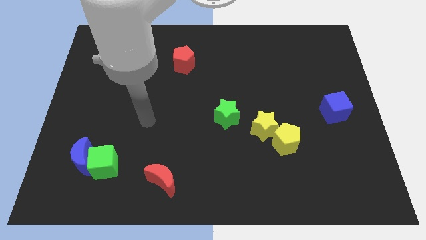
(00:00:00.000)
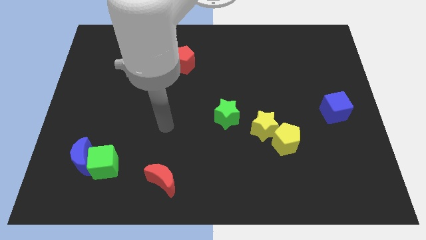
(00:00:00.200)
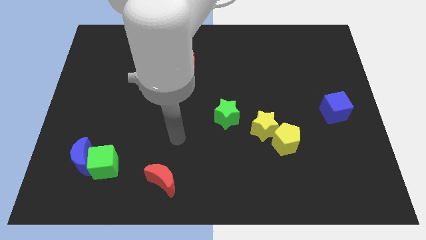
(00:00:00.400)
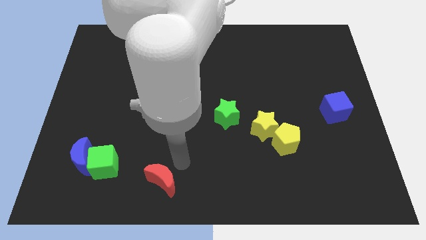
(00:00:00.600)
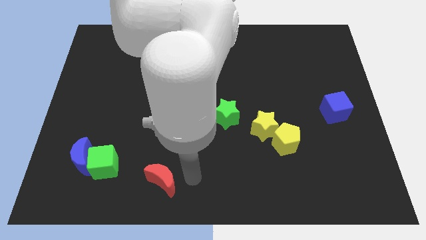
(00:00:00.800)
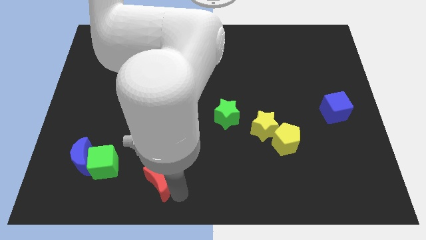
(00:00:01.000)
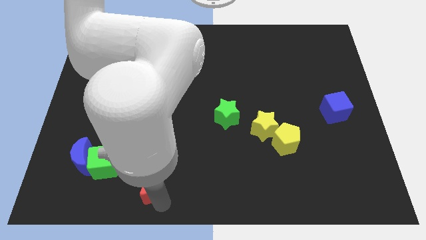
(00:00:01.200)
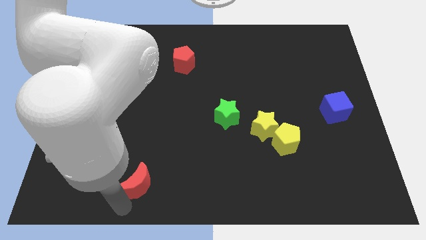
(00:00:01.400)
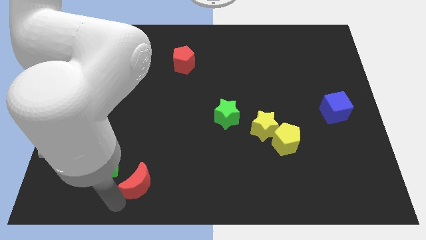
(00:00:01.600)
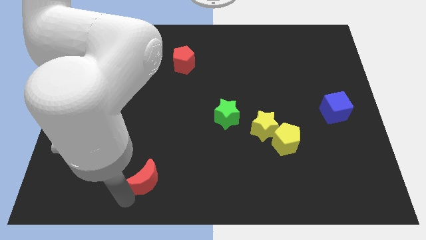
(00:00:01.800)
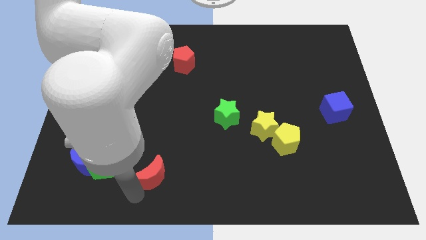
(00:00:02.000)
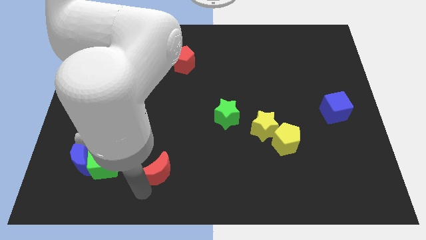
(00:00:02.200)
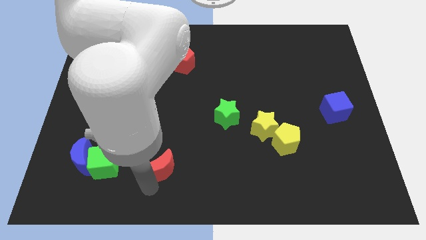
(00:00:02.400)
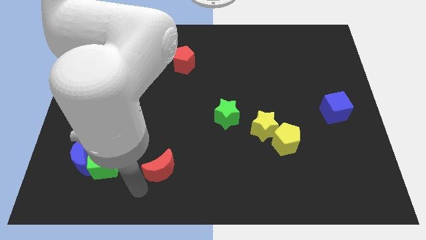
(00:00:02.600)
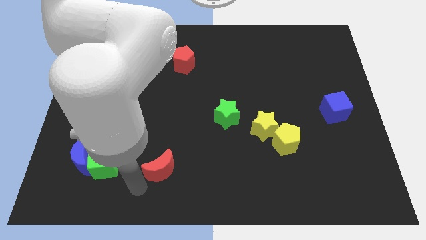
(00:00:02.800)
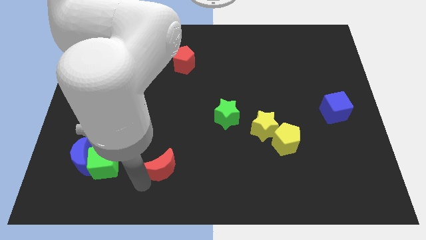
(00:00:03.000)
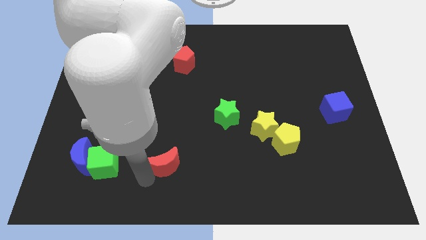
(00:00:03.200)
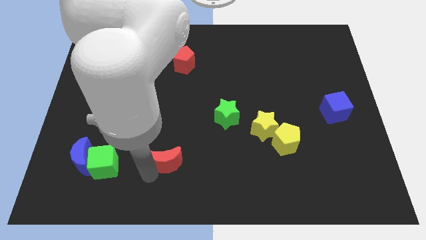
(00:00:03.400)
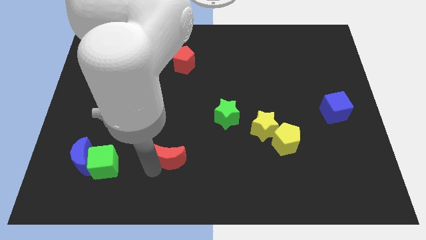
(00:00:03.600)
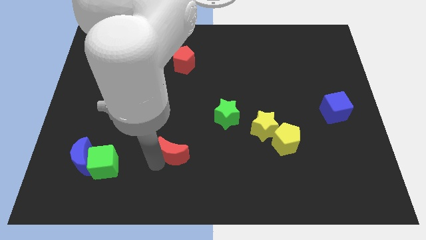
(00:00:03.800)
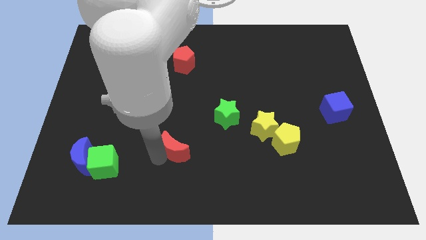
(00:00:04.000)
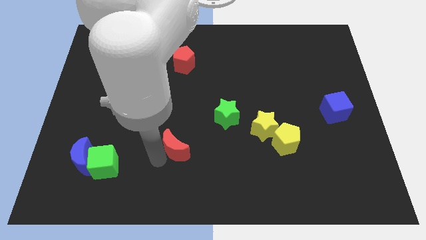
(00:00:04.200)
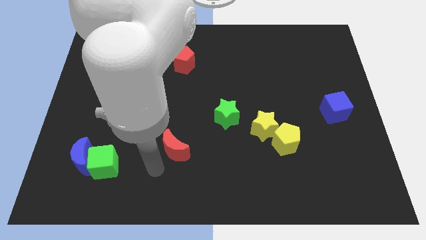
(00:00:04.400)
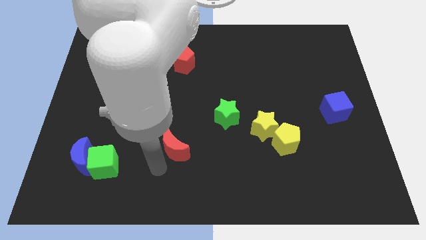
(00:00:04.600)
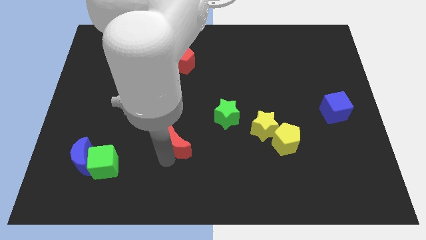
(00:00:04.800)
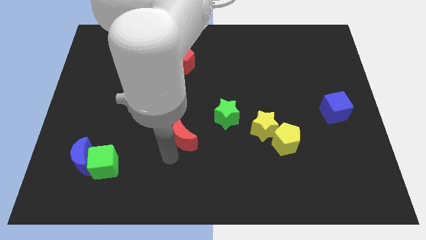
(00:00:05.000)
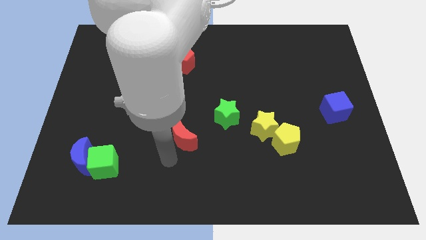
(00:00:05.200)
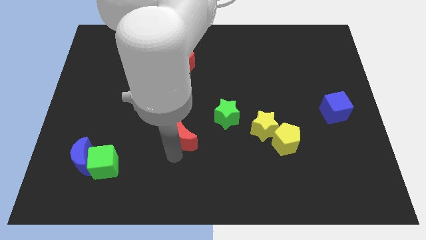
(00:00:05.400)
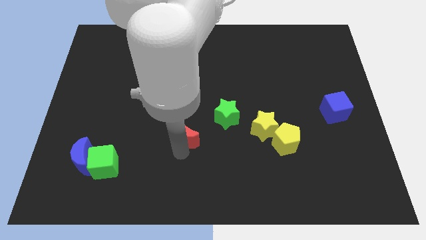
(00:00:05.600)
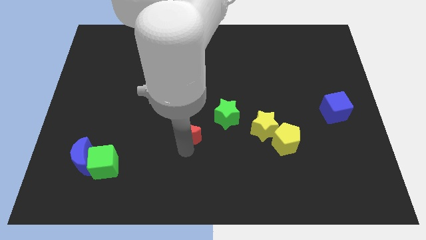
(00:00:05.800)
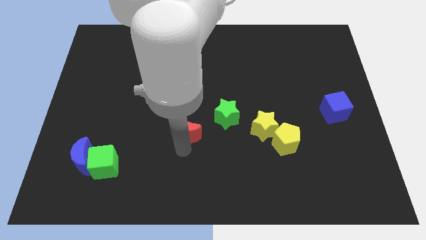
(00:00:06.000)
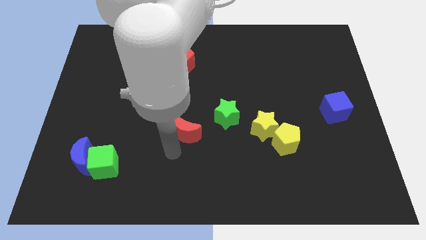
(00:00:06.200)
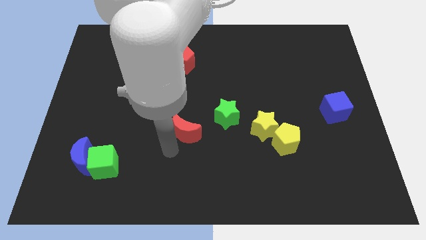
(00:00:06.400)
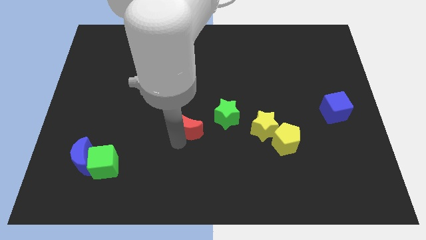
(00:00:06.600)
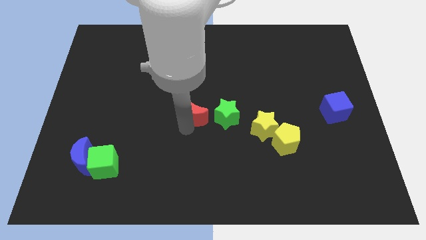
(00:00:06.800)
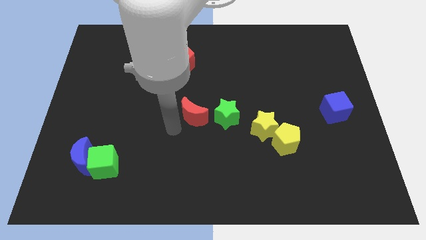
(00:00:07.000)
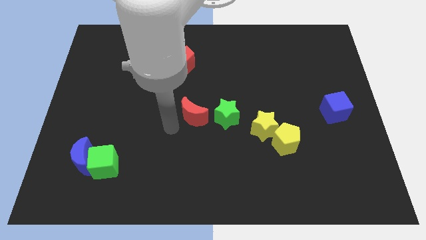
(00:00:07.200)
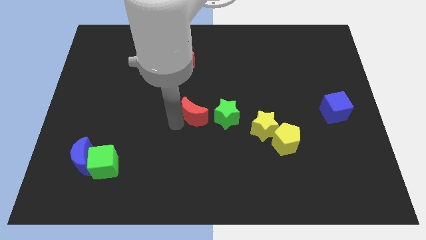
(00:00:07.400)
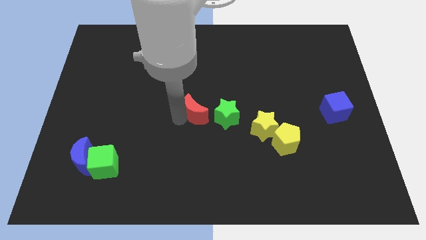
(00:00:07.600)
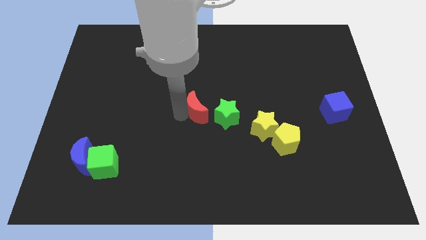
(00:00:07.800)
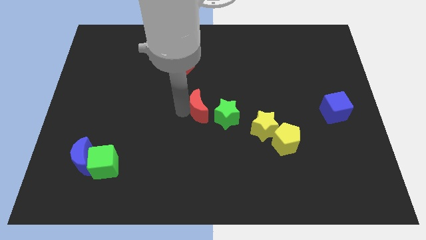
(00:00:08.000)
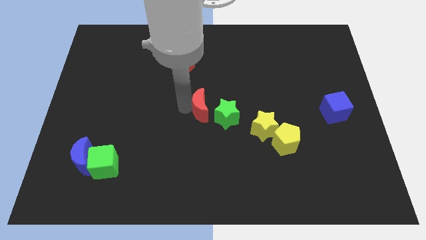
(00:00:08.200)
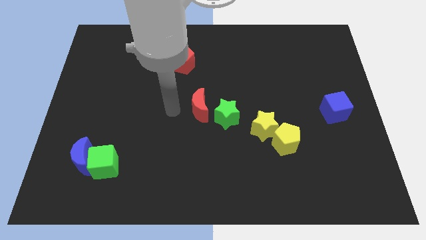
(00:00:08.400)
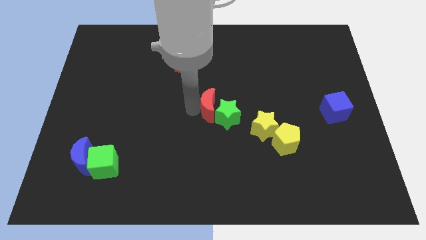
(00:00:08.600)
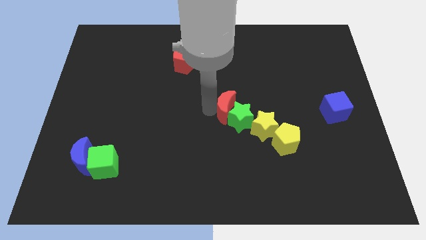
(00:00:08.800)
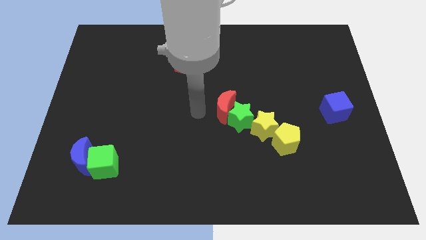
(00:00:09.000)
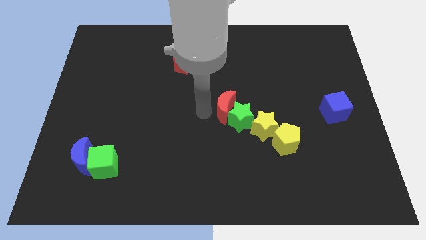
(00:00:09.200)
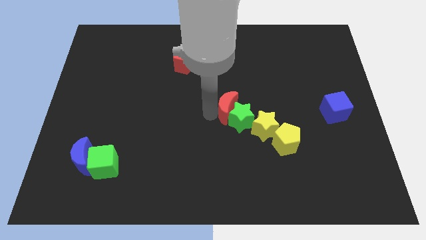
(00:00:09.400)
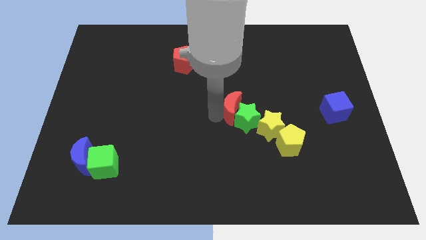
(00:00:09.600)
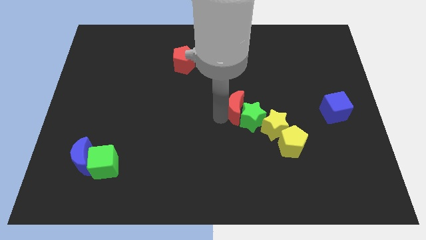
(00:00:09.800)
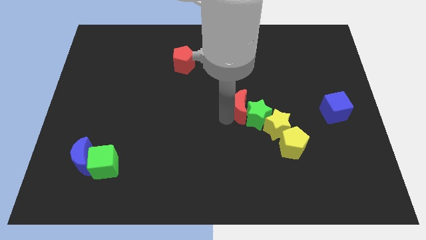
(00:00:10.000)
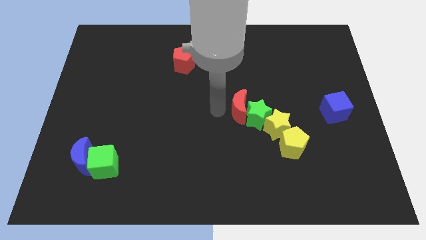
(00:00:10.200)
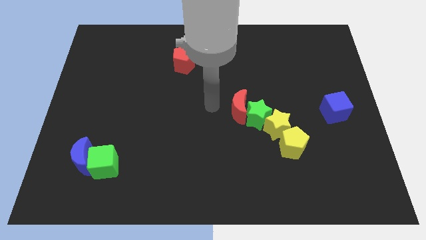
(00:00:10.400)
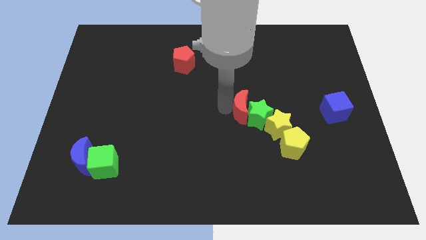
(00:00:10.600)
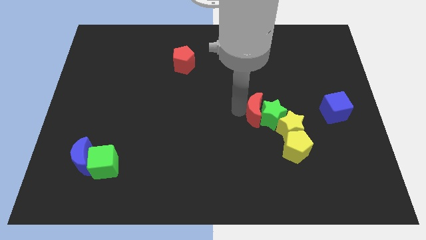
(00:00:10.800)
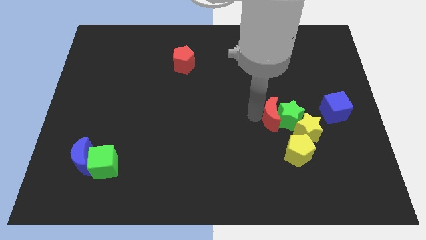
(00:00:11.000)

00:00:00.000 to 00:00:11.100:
push the red moon to the left of the blue cube

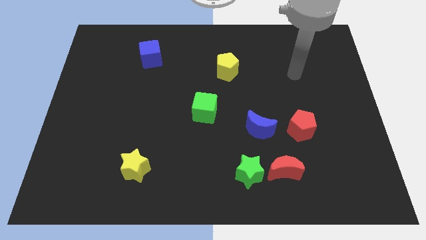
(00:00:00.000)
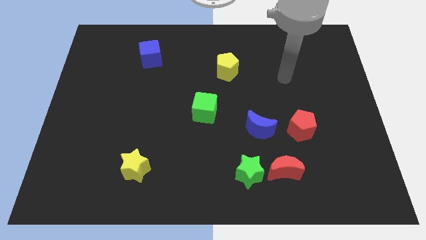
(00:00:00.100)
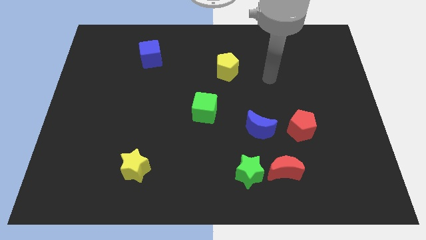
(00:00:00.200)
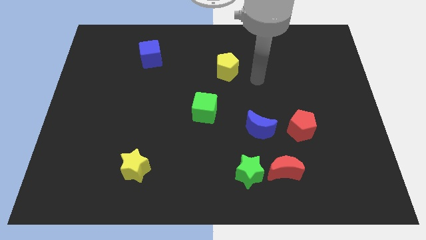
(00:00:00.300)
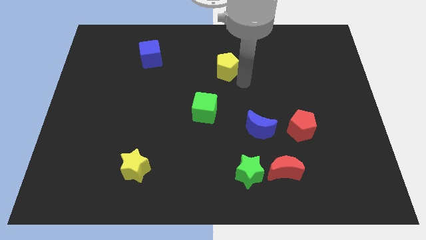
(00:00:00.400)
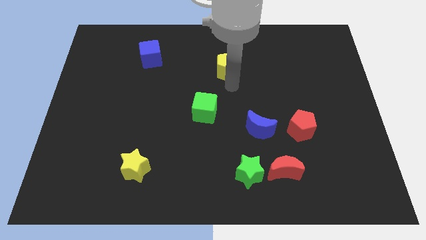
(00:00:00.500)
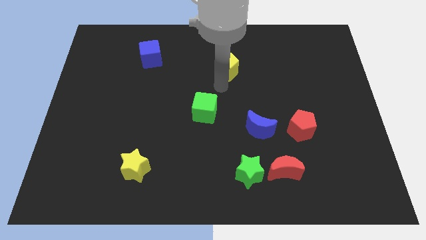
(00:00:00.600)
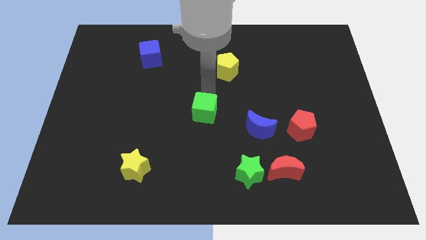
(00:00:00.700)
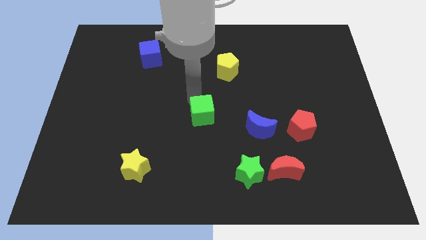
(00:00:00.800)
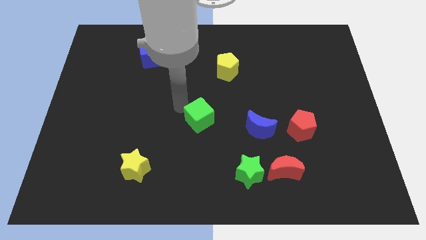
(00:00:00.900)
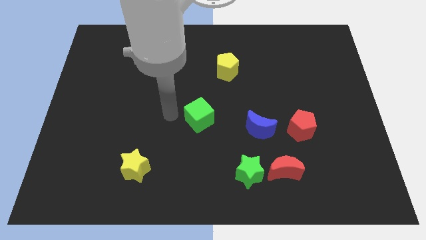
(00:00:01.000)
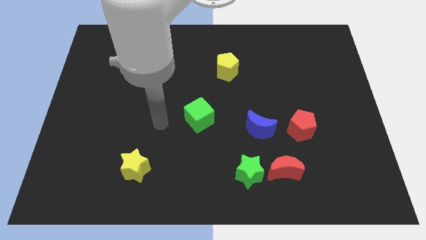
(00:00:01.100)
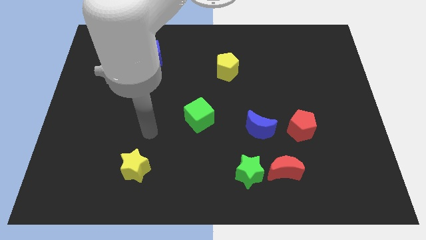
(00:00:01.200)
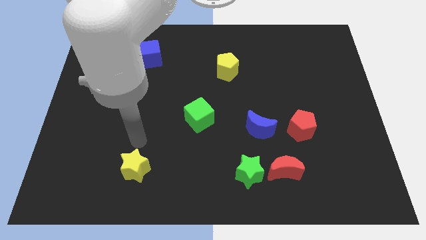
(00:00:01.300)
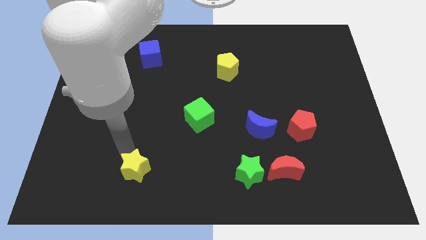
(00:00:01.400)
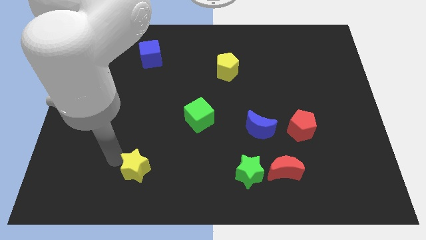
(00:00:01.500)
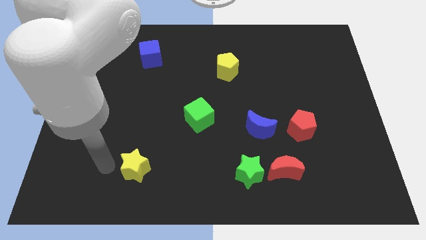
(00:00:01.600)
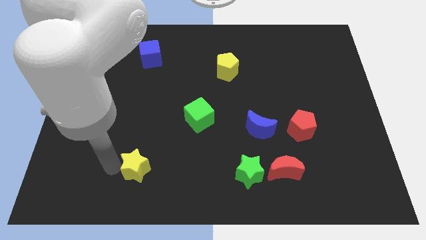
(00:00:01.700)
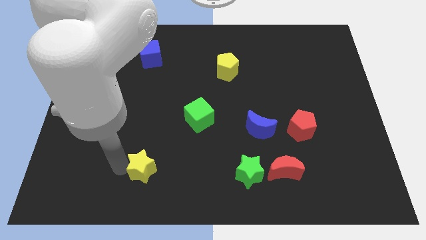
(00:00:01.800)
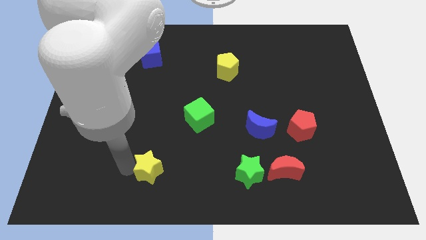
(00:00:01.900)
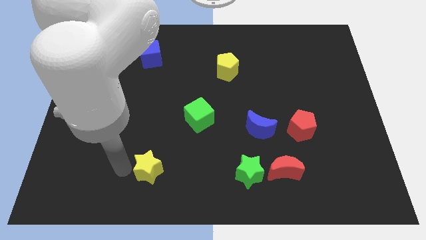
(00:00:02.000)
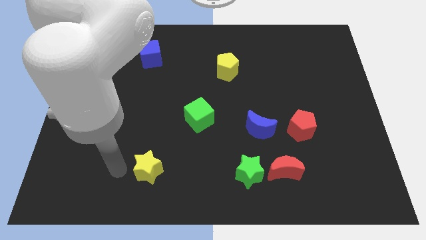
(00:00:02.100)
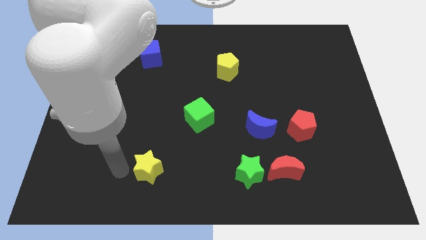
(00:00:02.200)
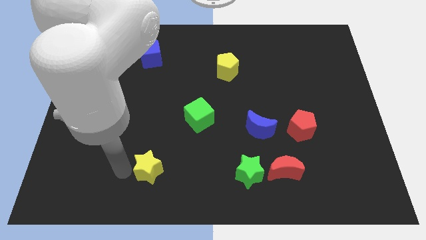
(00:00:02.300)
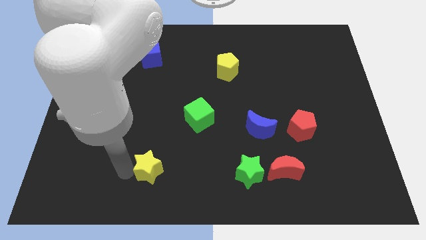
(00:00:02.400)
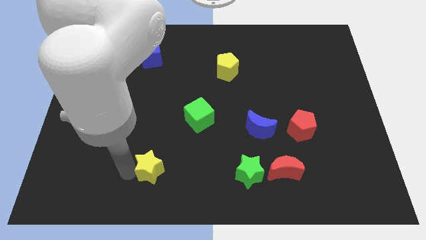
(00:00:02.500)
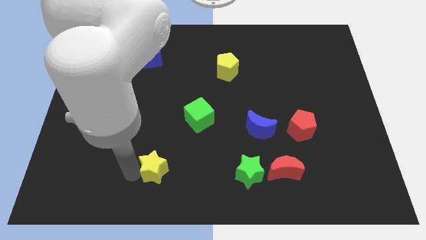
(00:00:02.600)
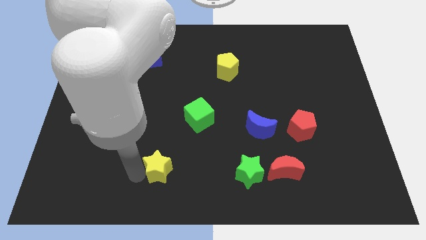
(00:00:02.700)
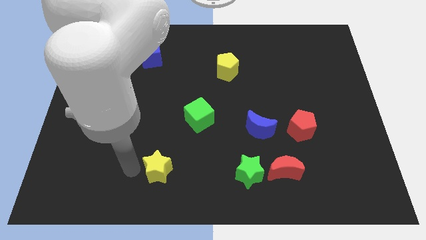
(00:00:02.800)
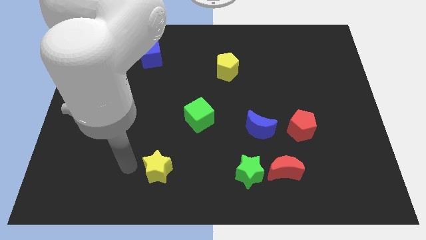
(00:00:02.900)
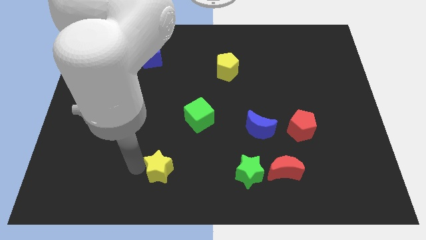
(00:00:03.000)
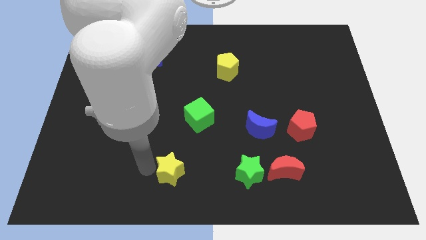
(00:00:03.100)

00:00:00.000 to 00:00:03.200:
put the yellow star to the left of the green star
